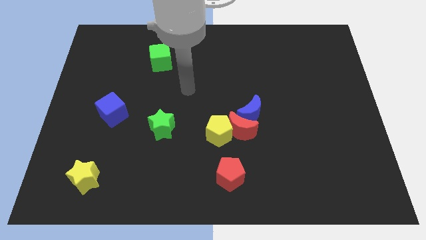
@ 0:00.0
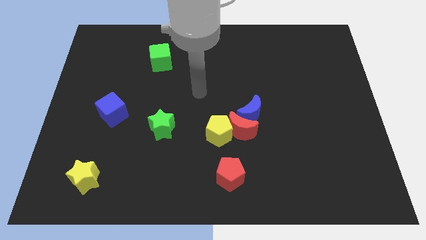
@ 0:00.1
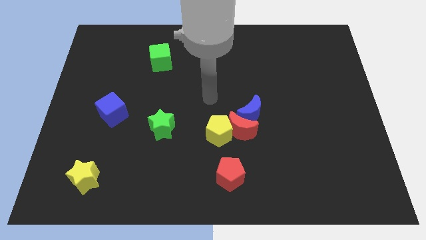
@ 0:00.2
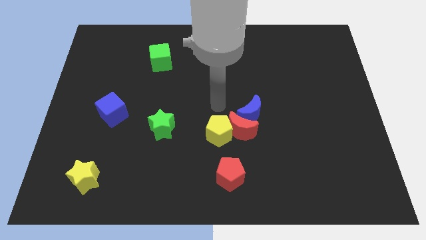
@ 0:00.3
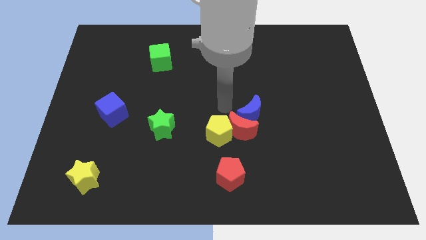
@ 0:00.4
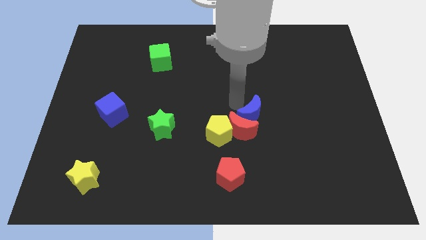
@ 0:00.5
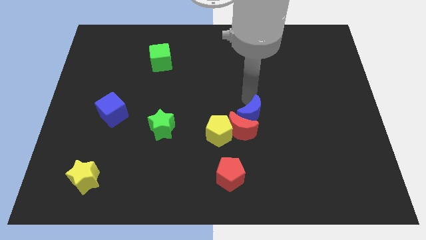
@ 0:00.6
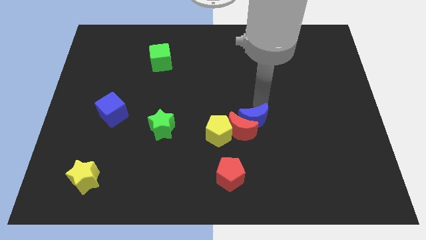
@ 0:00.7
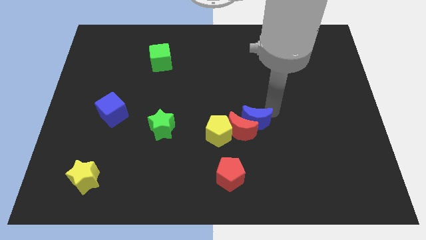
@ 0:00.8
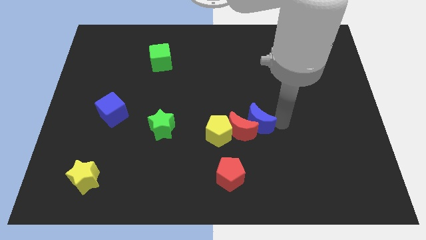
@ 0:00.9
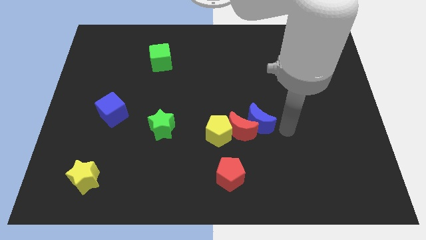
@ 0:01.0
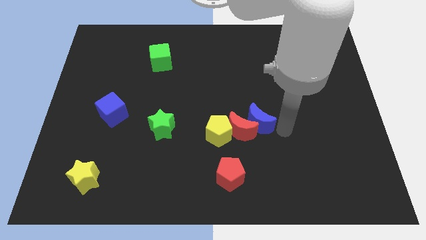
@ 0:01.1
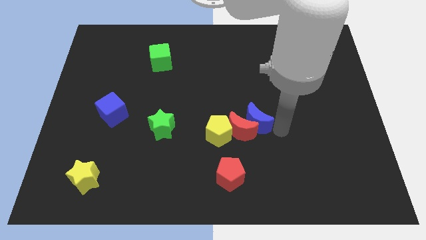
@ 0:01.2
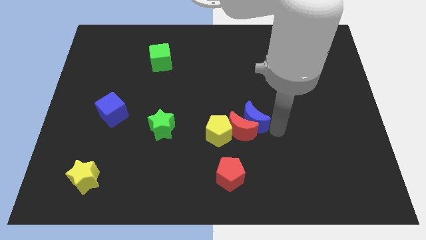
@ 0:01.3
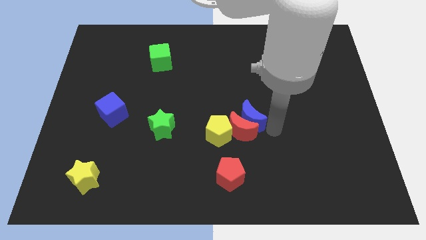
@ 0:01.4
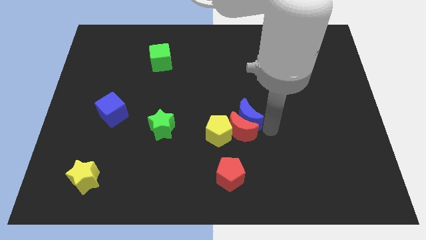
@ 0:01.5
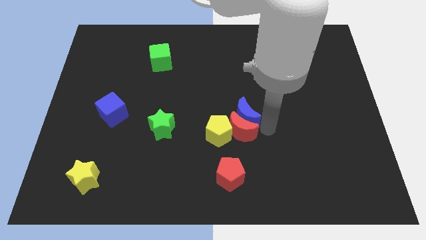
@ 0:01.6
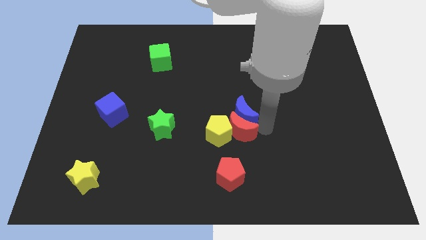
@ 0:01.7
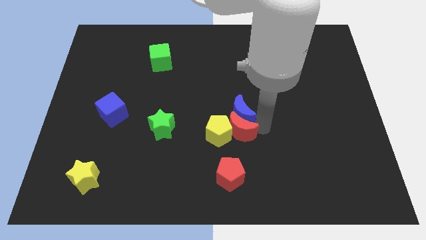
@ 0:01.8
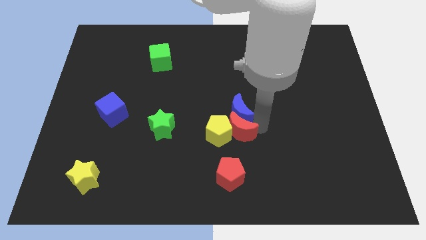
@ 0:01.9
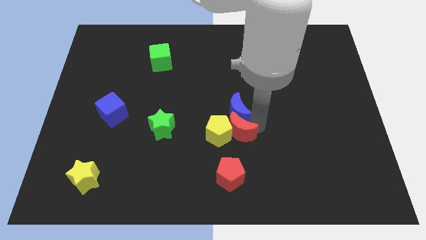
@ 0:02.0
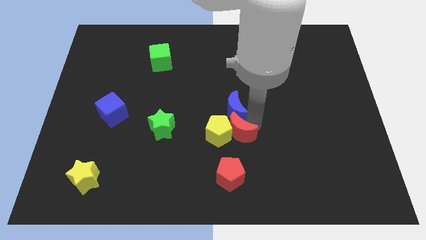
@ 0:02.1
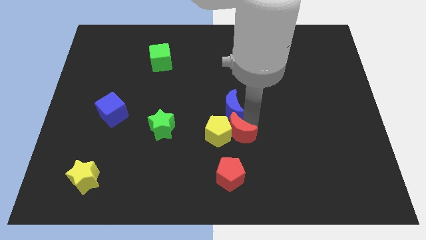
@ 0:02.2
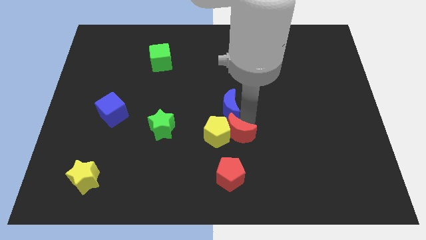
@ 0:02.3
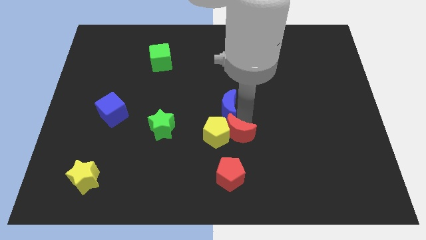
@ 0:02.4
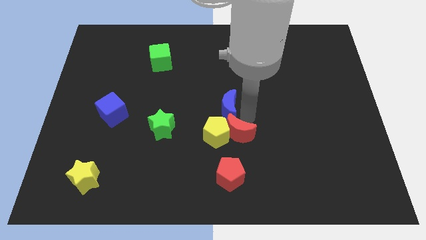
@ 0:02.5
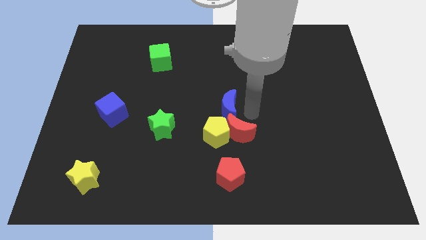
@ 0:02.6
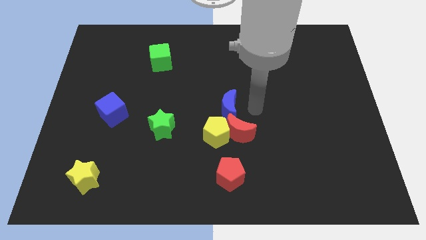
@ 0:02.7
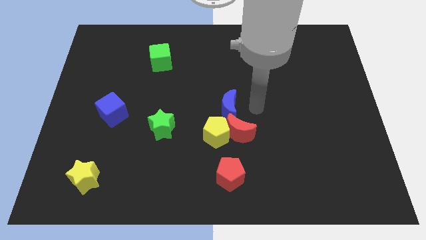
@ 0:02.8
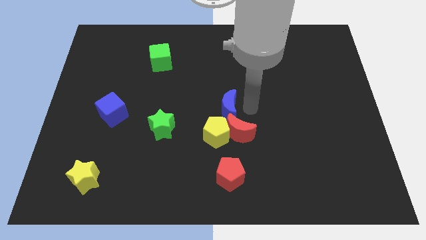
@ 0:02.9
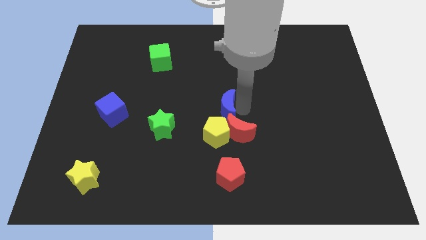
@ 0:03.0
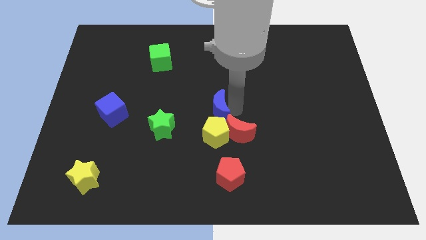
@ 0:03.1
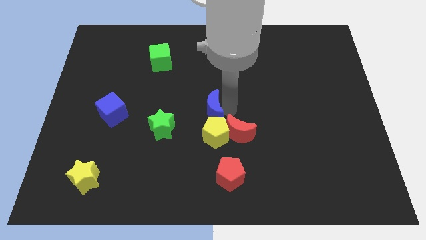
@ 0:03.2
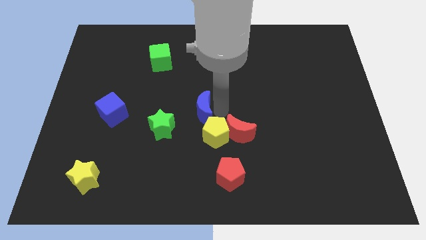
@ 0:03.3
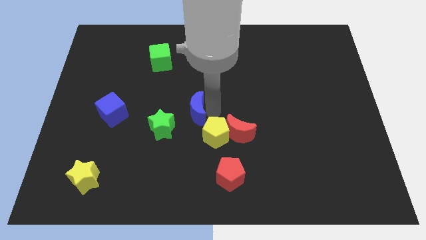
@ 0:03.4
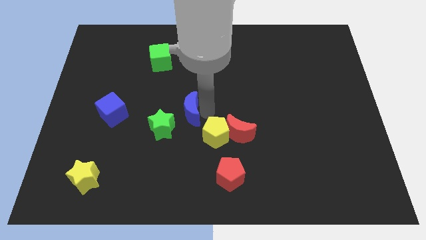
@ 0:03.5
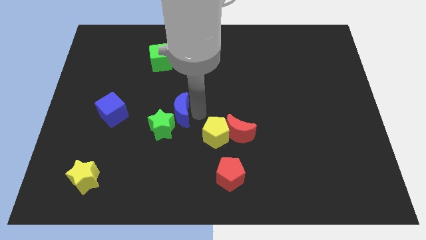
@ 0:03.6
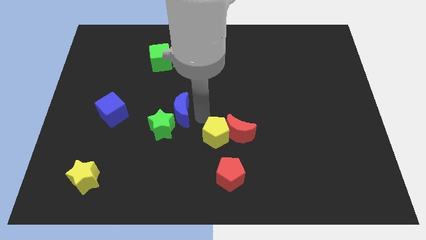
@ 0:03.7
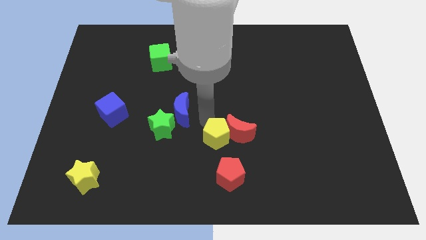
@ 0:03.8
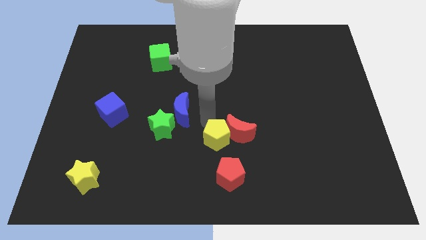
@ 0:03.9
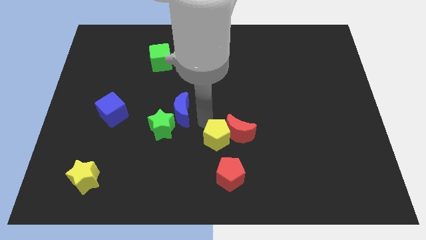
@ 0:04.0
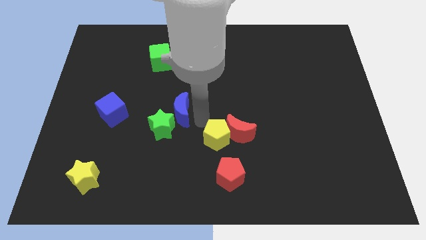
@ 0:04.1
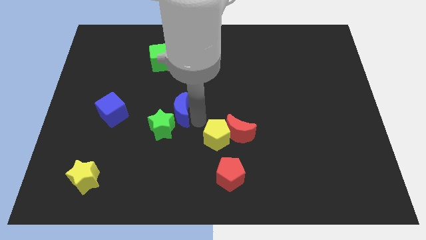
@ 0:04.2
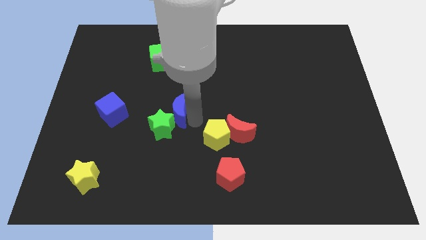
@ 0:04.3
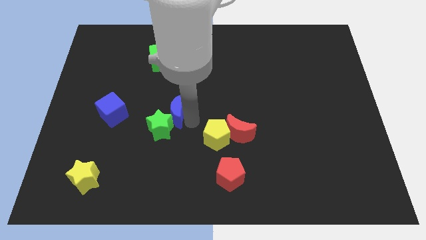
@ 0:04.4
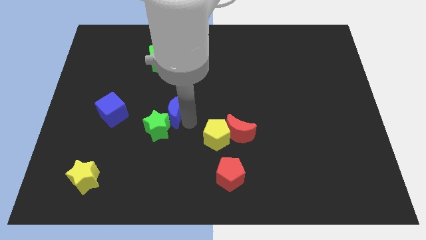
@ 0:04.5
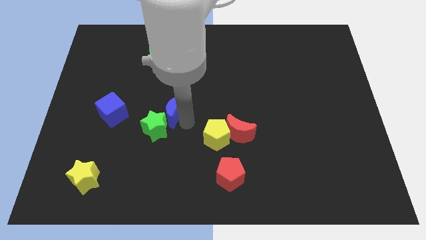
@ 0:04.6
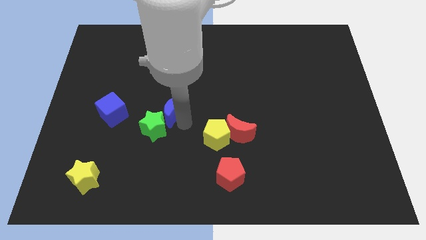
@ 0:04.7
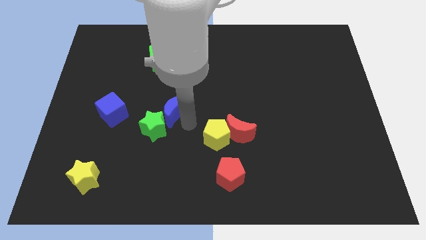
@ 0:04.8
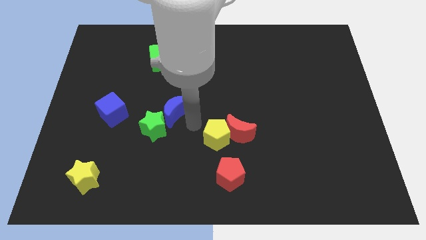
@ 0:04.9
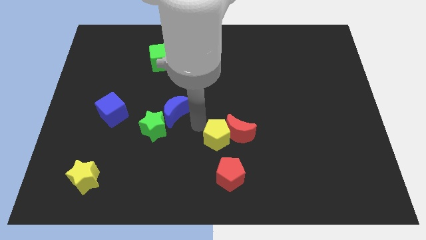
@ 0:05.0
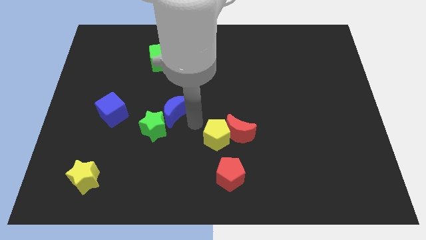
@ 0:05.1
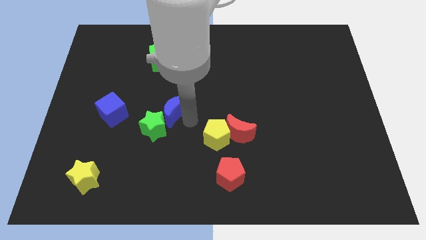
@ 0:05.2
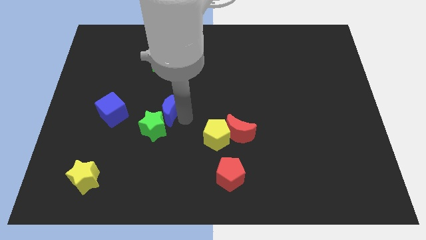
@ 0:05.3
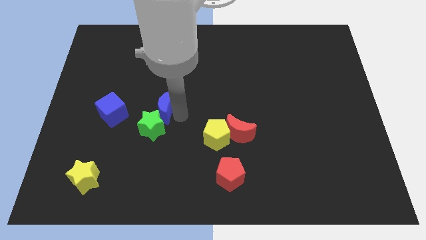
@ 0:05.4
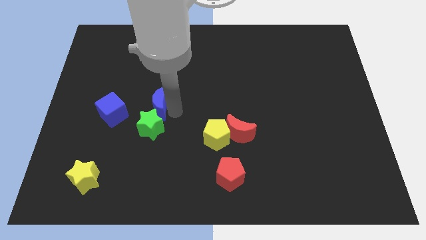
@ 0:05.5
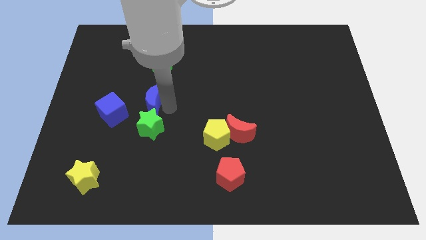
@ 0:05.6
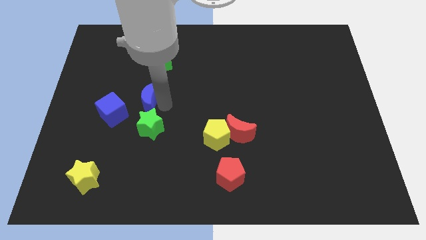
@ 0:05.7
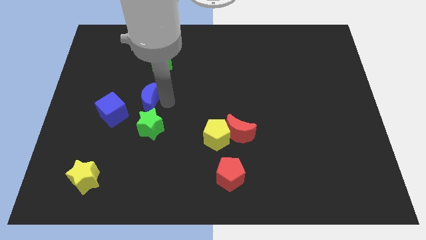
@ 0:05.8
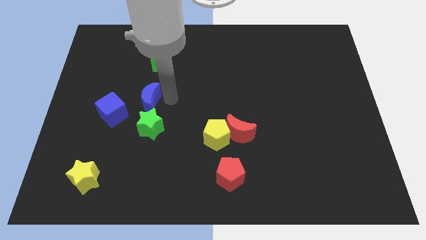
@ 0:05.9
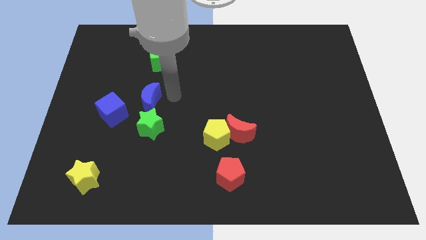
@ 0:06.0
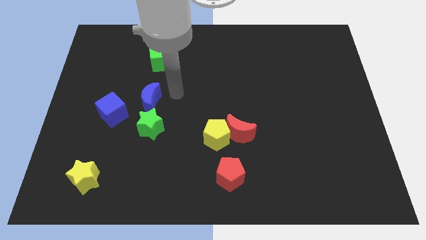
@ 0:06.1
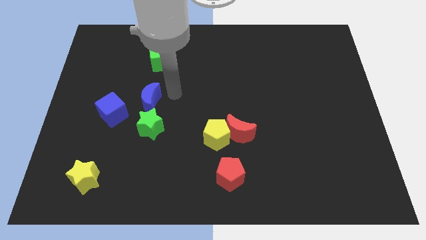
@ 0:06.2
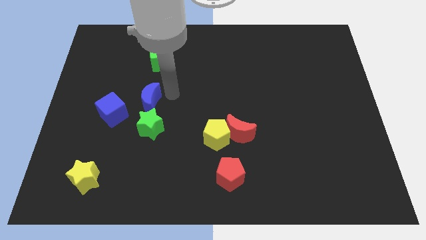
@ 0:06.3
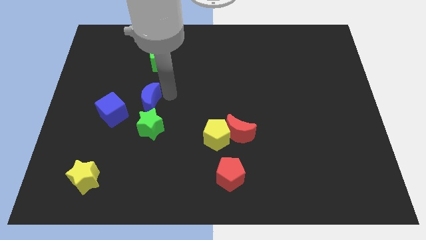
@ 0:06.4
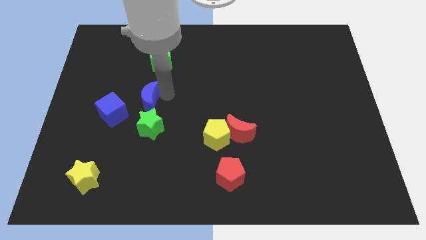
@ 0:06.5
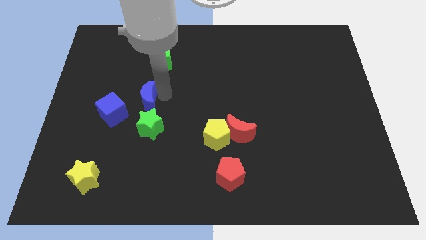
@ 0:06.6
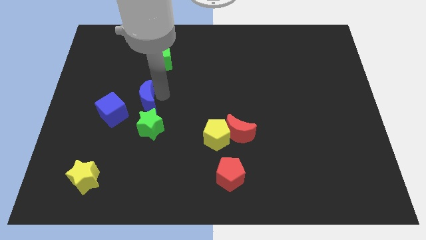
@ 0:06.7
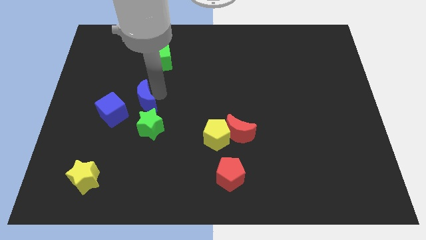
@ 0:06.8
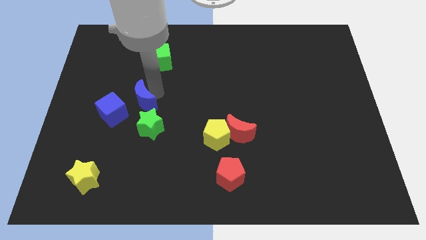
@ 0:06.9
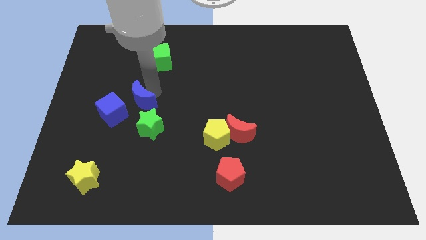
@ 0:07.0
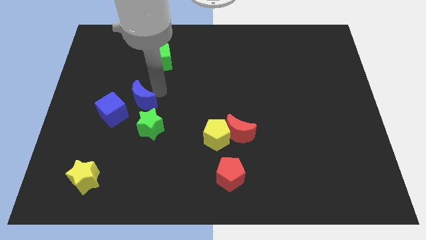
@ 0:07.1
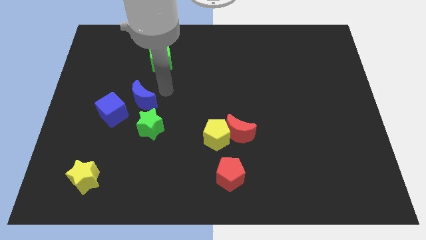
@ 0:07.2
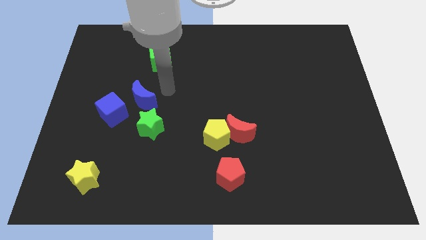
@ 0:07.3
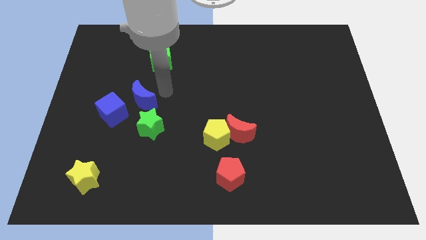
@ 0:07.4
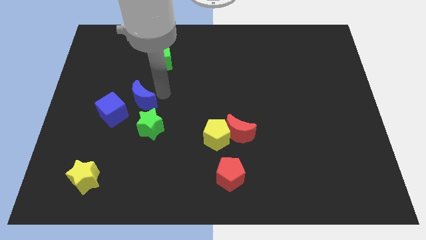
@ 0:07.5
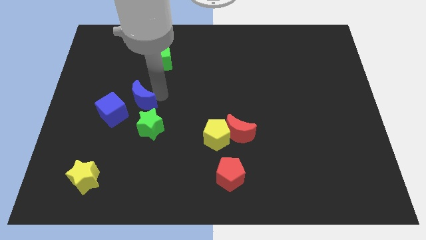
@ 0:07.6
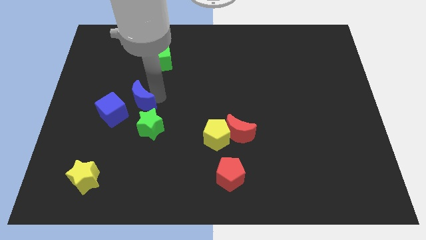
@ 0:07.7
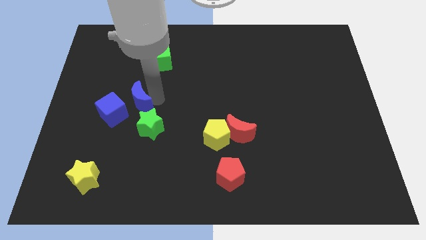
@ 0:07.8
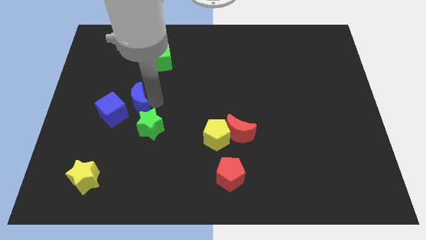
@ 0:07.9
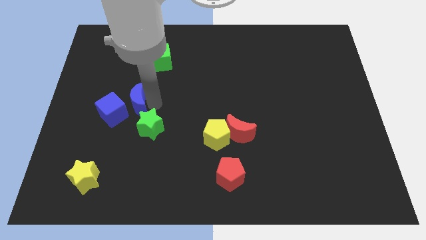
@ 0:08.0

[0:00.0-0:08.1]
put the blue moon towards the blue cube
